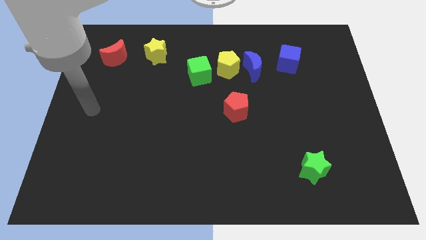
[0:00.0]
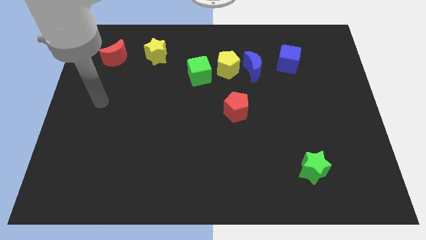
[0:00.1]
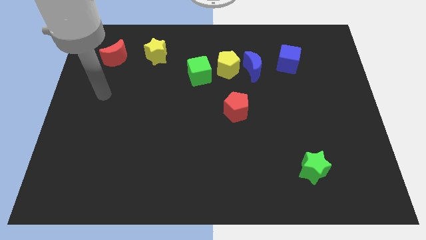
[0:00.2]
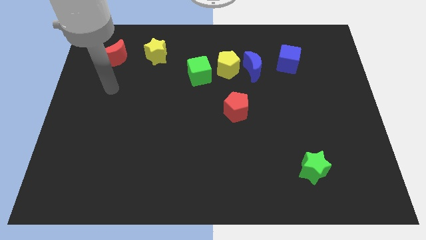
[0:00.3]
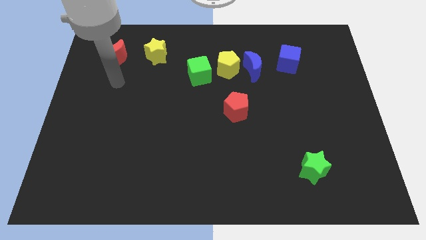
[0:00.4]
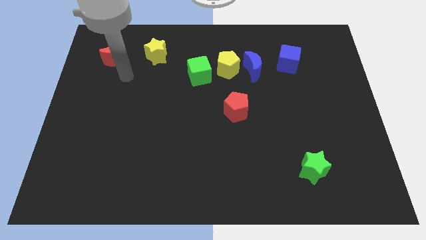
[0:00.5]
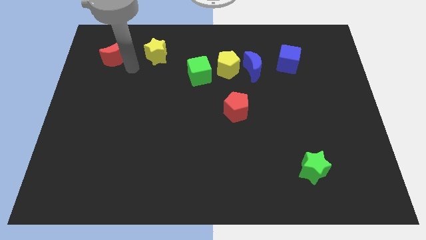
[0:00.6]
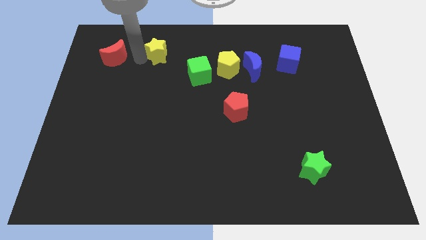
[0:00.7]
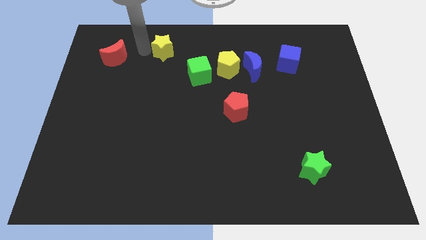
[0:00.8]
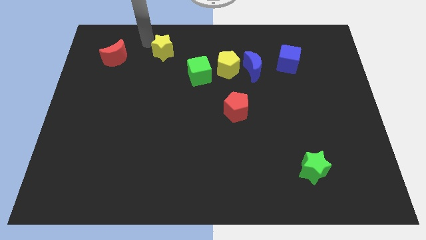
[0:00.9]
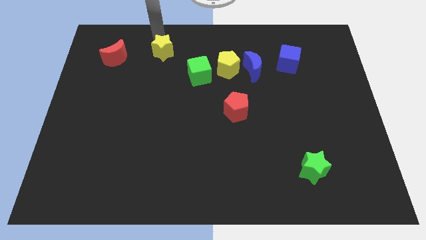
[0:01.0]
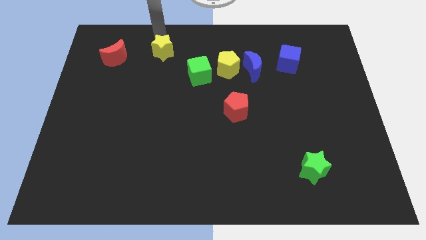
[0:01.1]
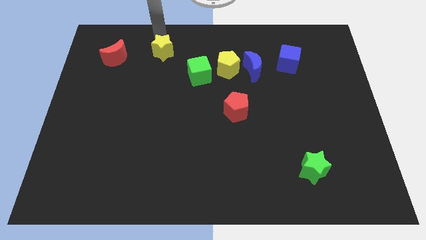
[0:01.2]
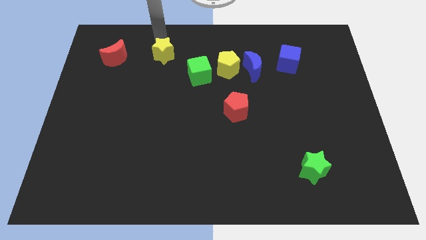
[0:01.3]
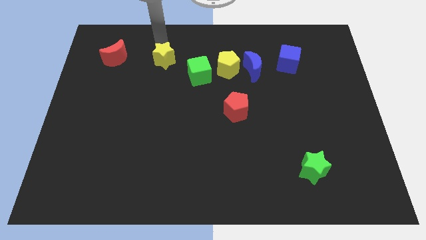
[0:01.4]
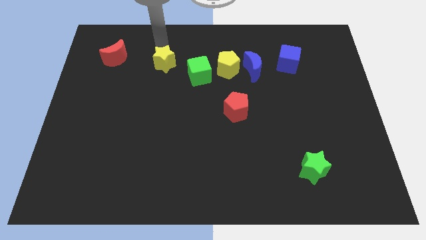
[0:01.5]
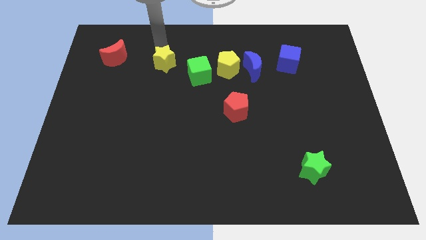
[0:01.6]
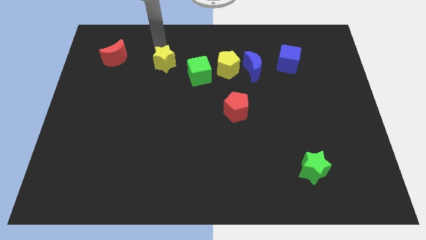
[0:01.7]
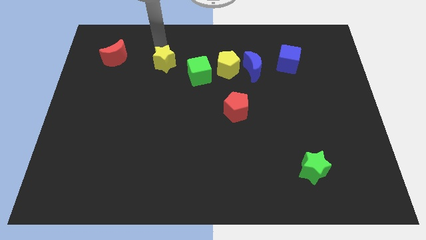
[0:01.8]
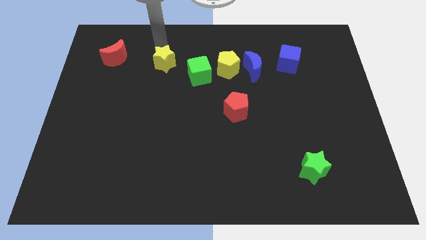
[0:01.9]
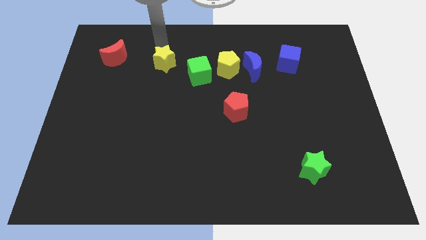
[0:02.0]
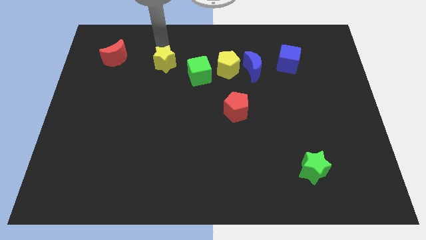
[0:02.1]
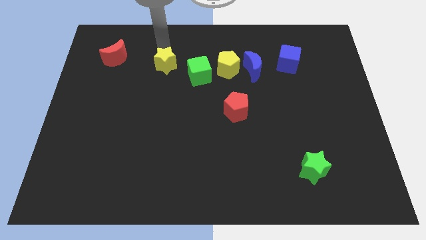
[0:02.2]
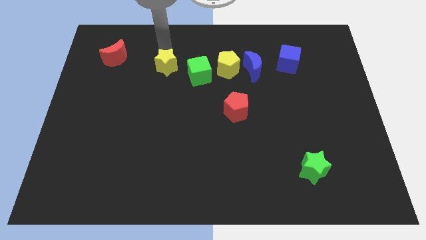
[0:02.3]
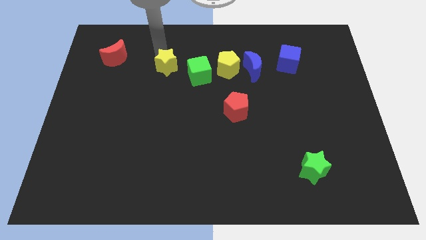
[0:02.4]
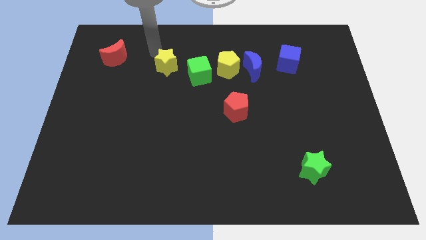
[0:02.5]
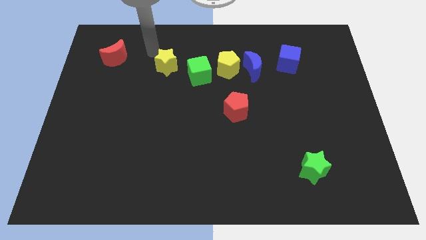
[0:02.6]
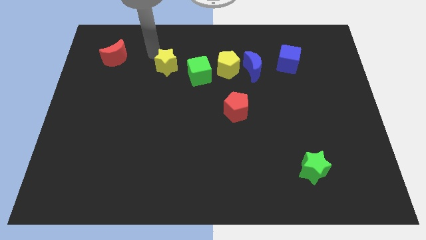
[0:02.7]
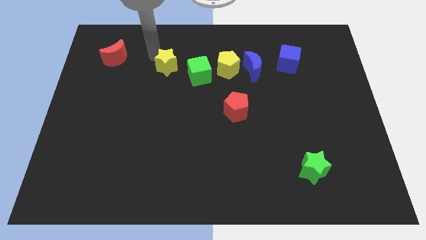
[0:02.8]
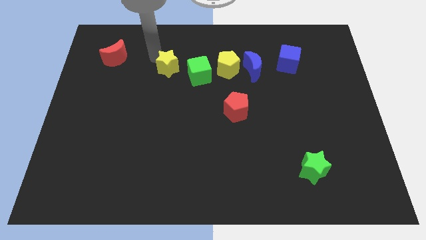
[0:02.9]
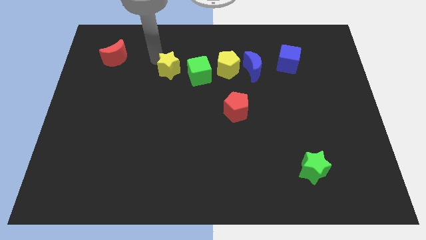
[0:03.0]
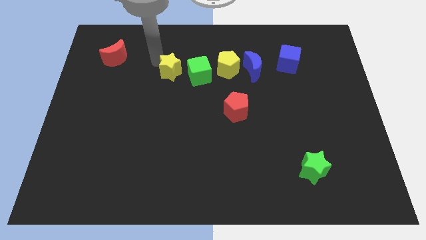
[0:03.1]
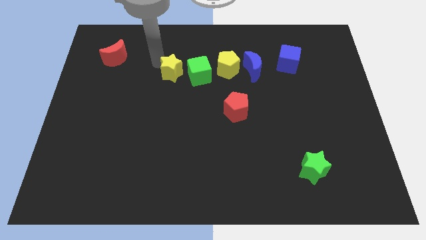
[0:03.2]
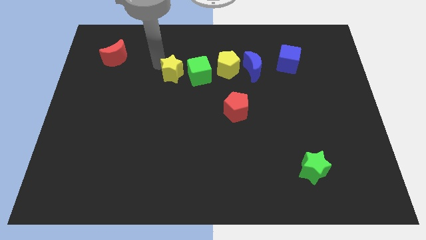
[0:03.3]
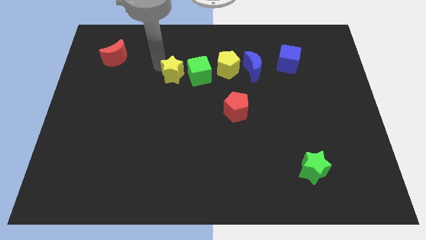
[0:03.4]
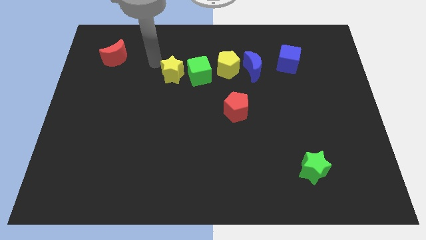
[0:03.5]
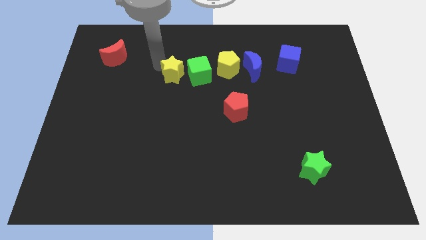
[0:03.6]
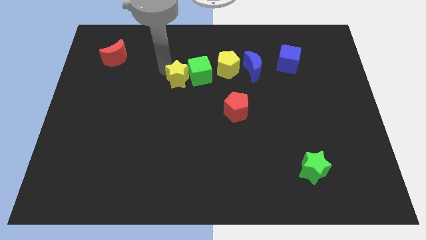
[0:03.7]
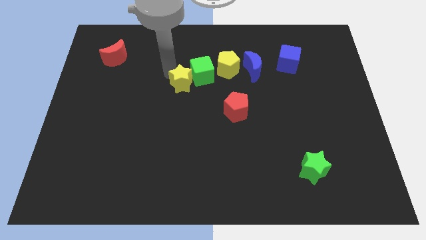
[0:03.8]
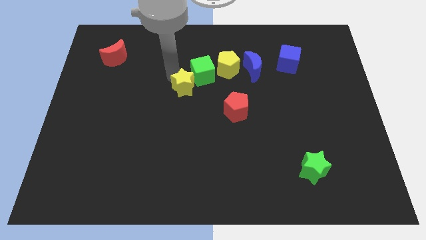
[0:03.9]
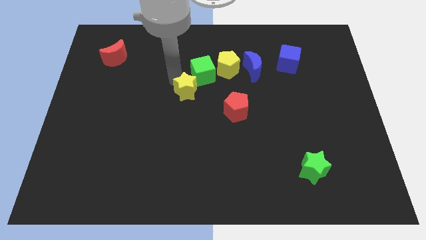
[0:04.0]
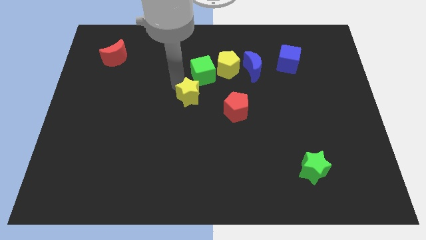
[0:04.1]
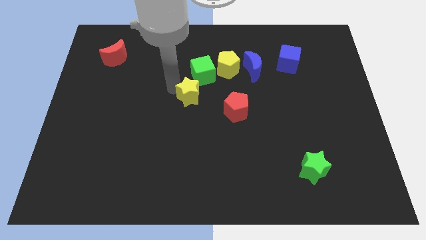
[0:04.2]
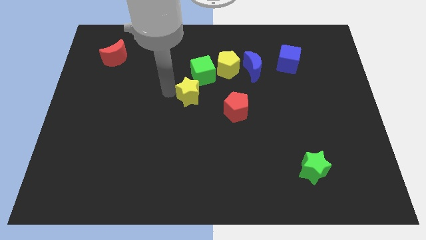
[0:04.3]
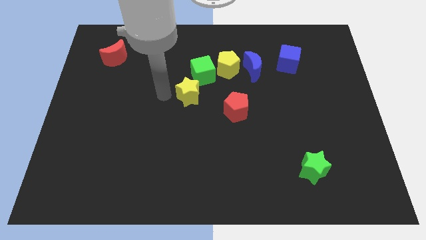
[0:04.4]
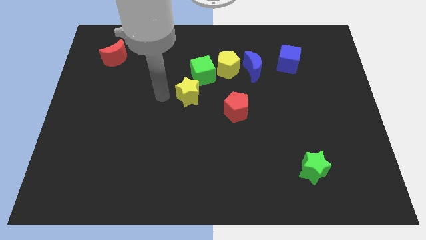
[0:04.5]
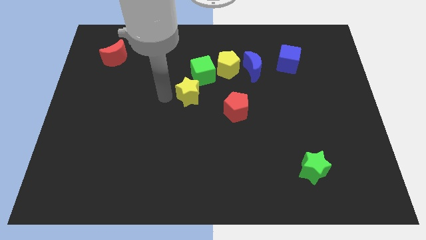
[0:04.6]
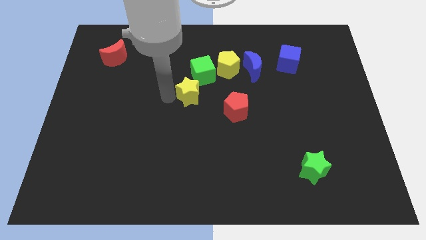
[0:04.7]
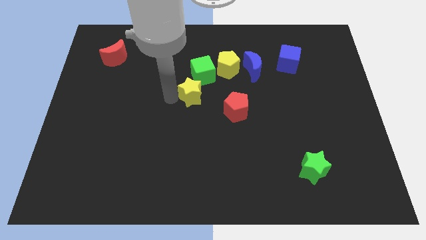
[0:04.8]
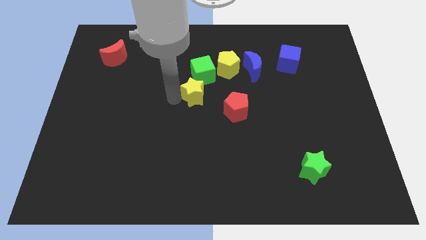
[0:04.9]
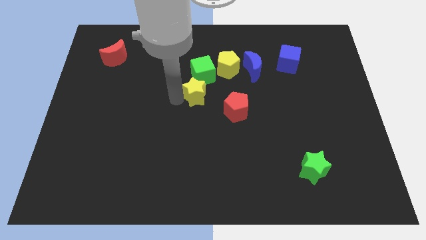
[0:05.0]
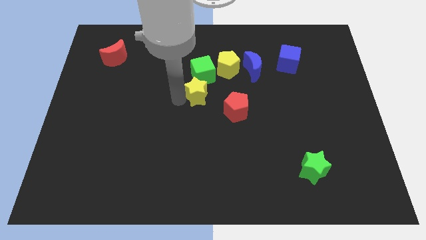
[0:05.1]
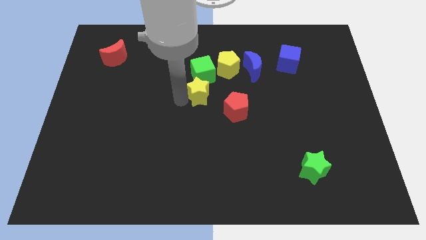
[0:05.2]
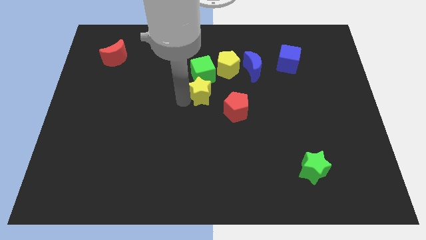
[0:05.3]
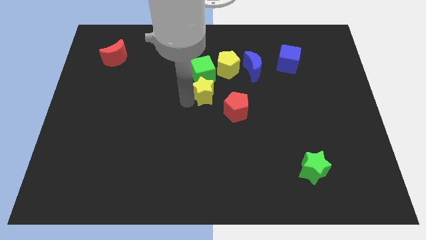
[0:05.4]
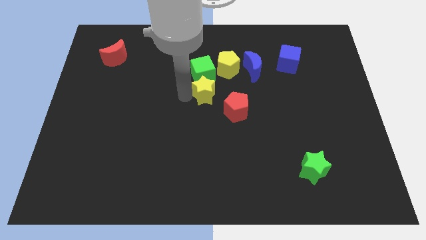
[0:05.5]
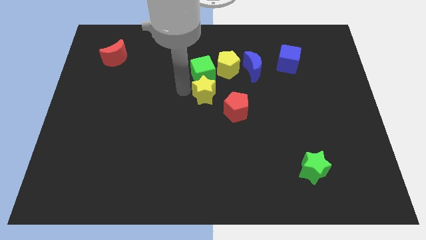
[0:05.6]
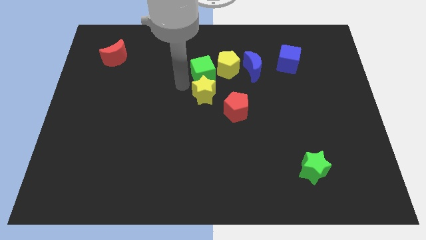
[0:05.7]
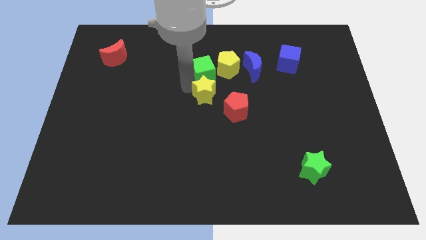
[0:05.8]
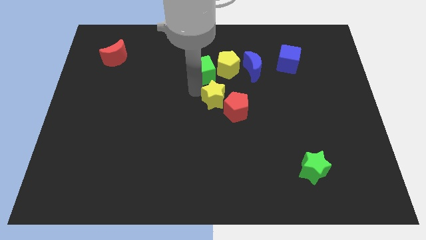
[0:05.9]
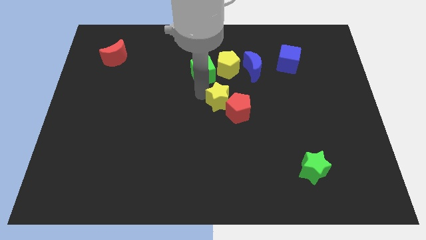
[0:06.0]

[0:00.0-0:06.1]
put the yellow star towards the red pentagon

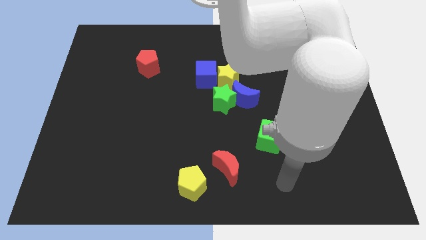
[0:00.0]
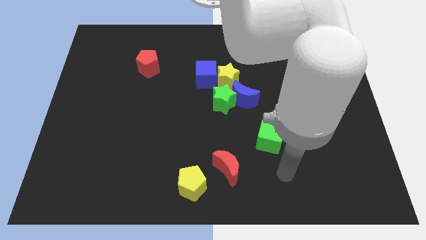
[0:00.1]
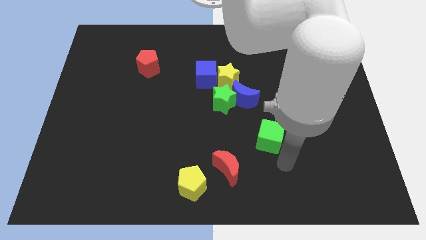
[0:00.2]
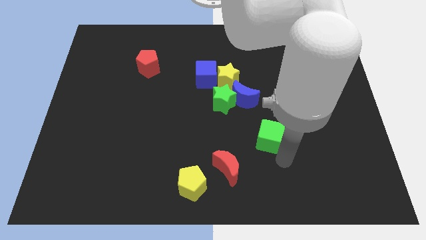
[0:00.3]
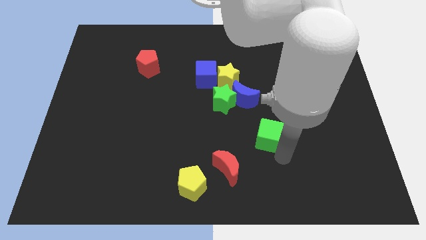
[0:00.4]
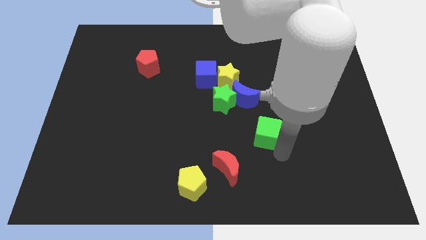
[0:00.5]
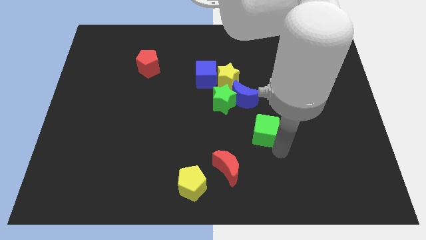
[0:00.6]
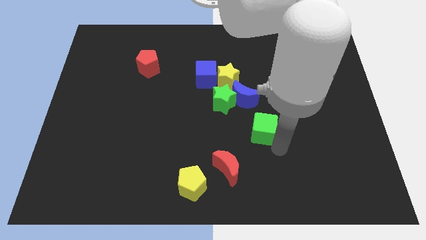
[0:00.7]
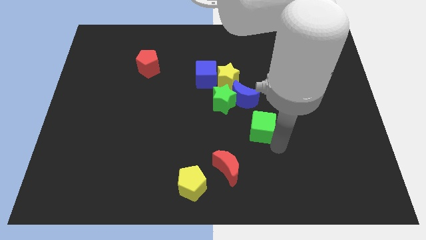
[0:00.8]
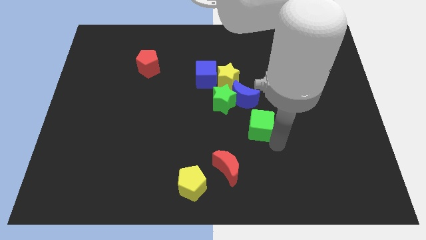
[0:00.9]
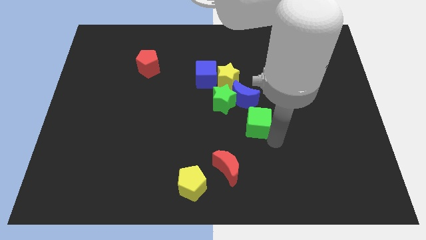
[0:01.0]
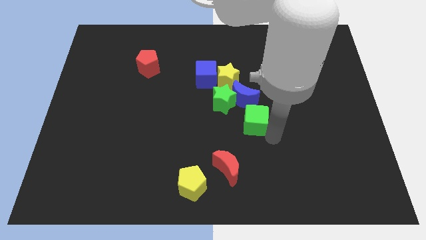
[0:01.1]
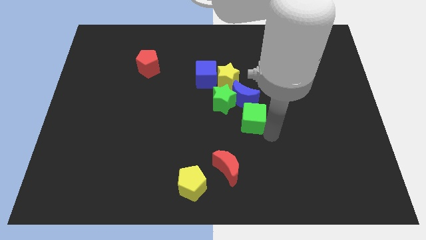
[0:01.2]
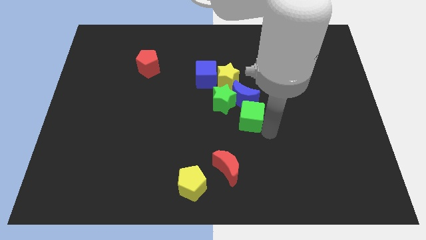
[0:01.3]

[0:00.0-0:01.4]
put the green cube close to the blue moon

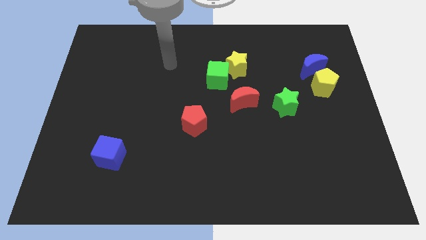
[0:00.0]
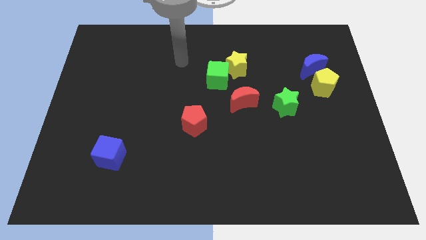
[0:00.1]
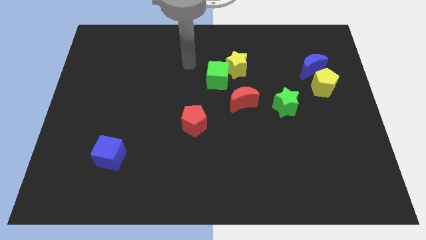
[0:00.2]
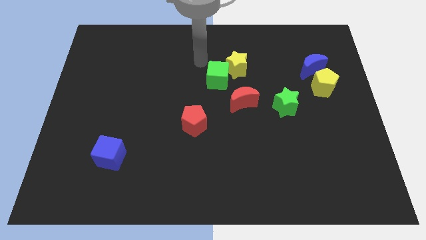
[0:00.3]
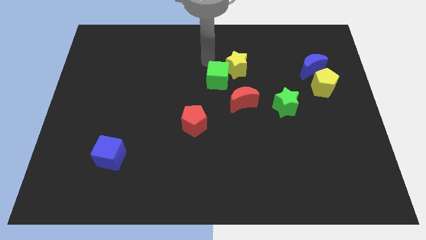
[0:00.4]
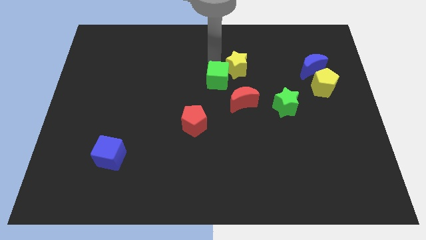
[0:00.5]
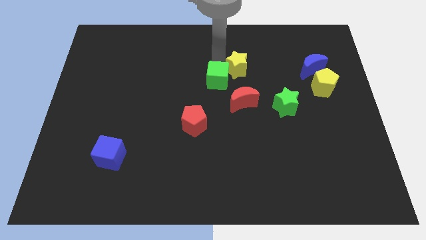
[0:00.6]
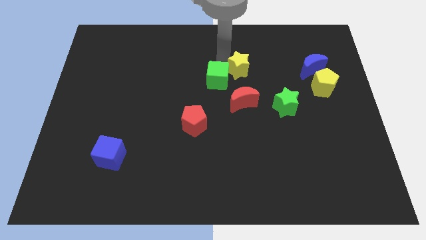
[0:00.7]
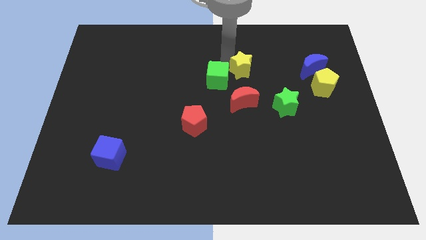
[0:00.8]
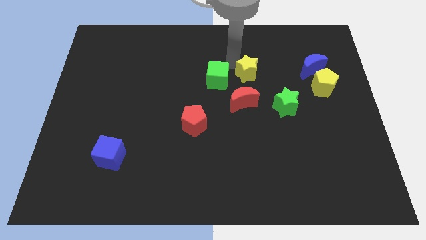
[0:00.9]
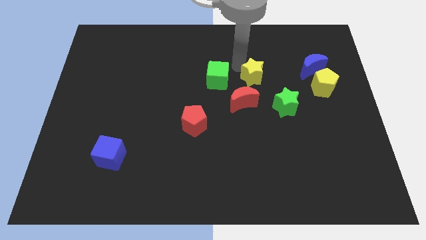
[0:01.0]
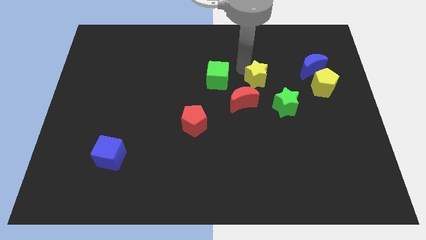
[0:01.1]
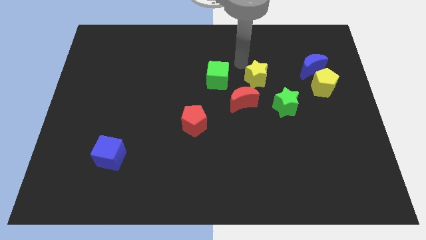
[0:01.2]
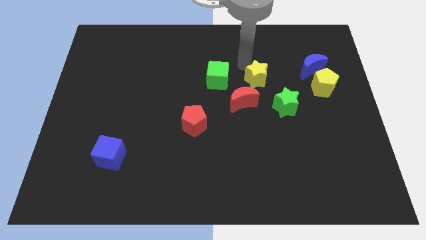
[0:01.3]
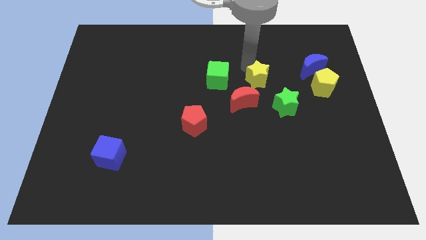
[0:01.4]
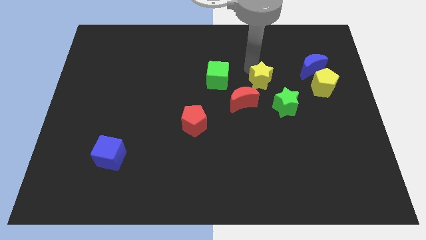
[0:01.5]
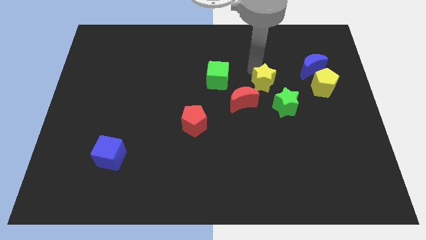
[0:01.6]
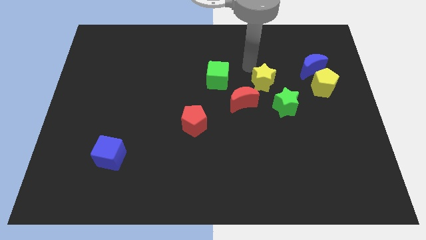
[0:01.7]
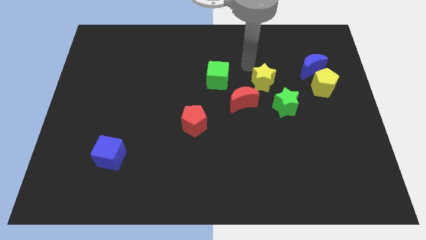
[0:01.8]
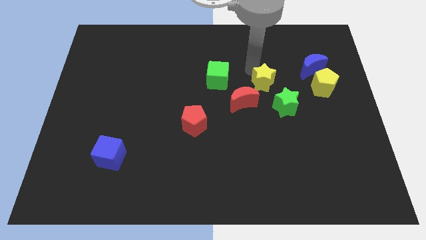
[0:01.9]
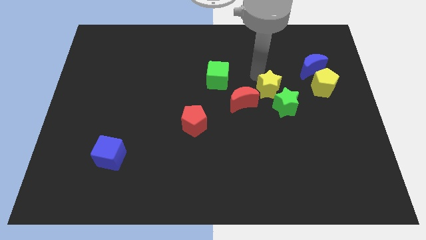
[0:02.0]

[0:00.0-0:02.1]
push the yellow star close to the green star
